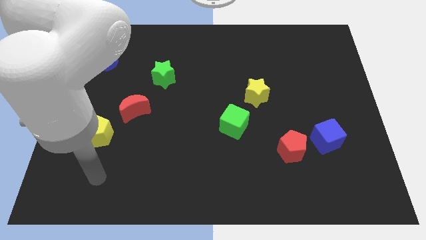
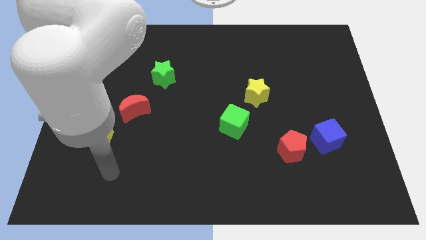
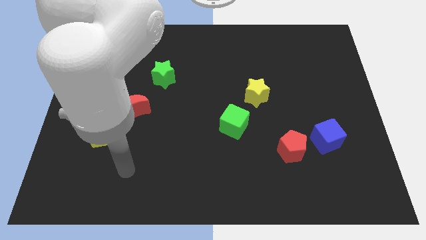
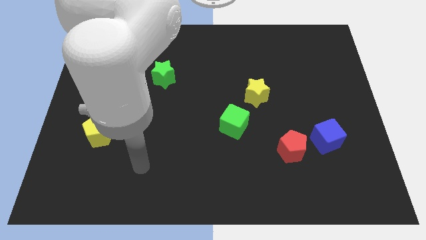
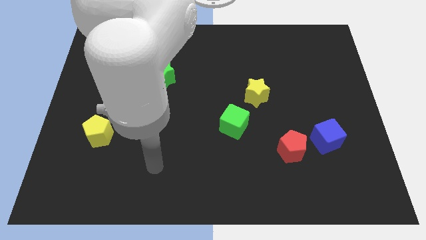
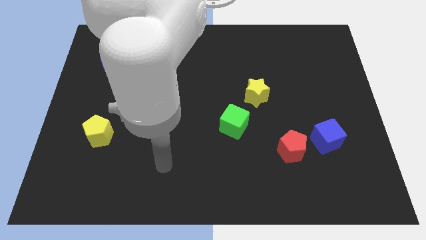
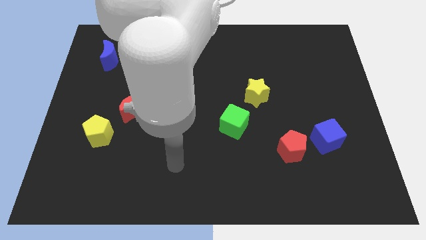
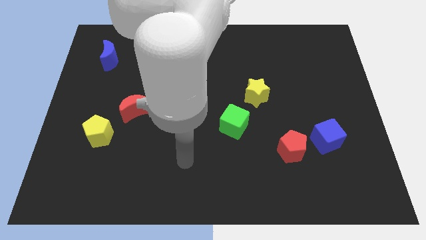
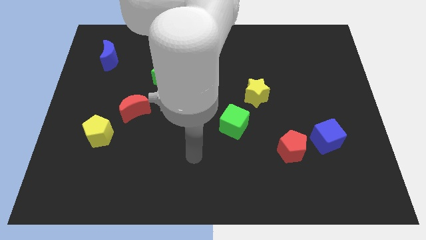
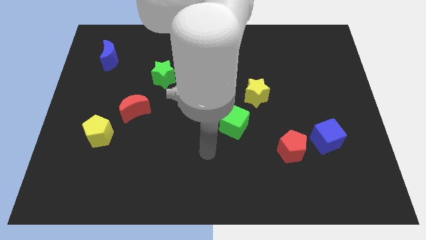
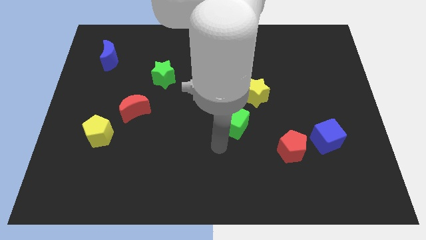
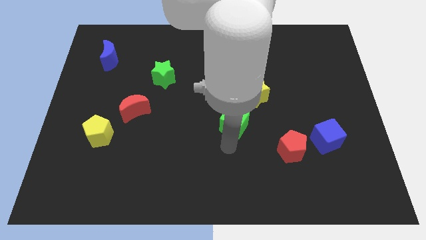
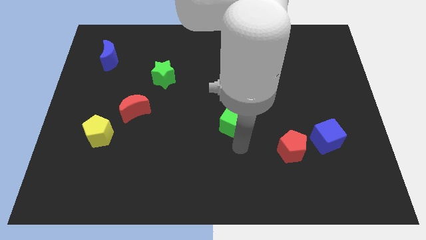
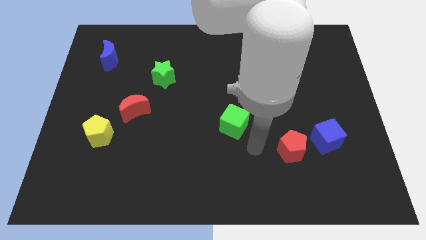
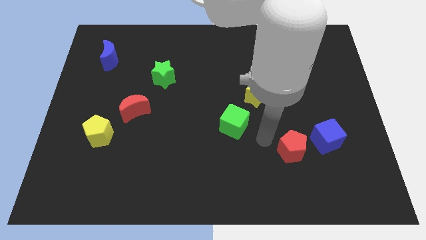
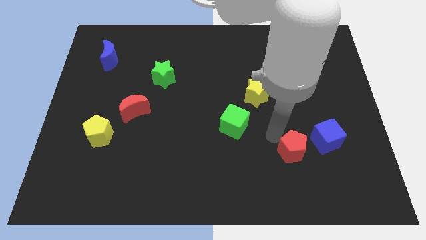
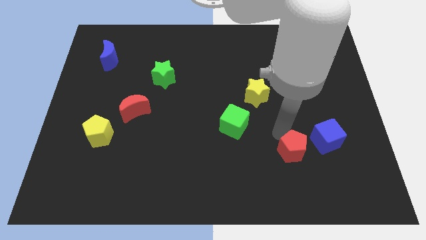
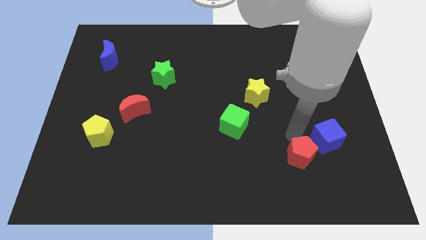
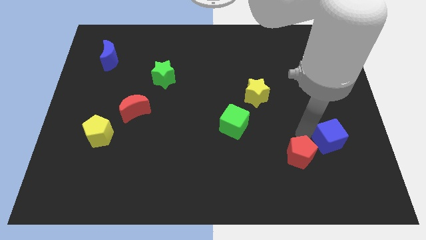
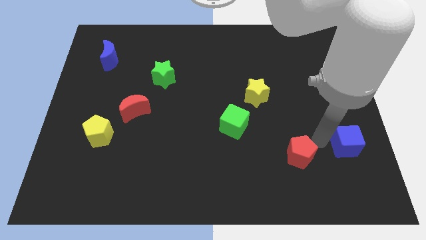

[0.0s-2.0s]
separate the red pentagon from the blue cube

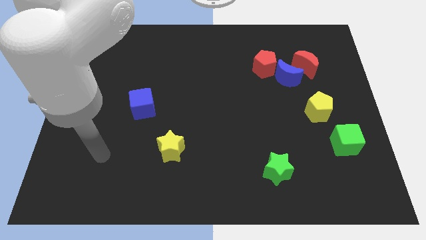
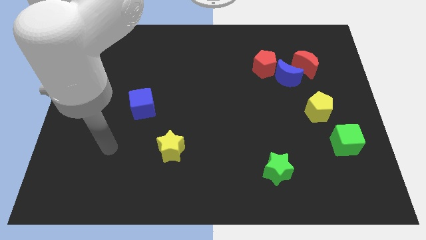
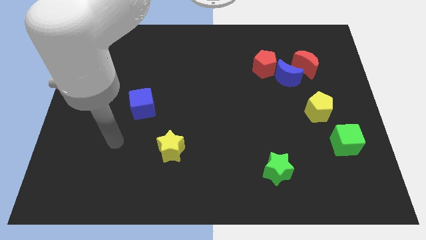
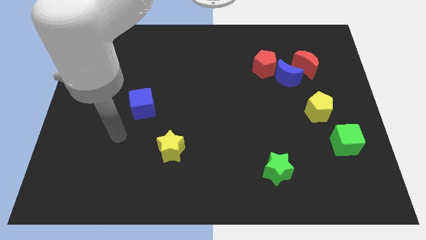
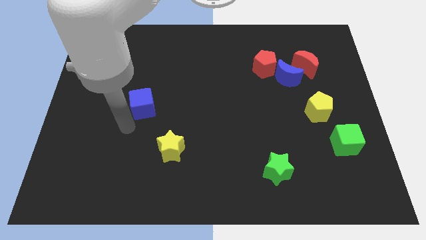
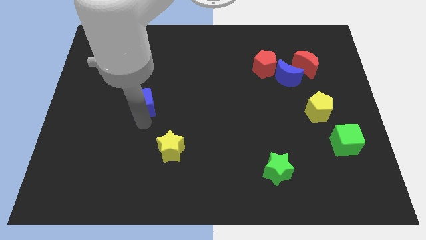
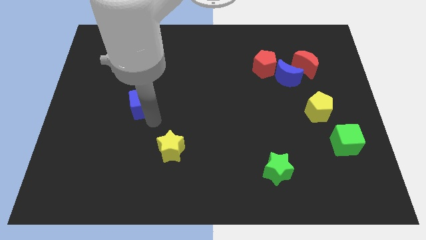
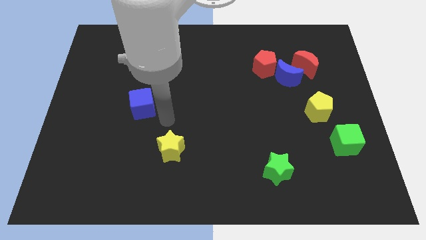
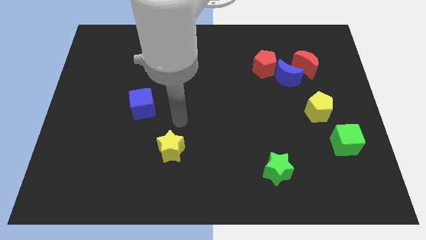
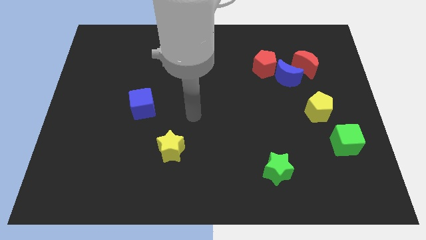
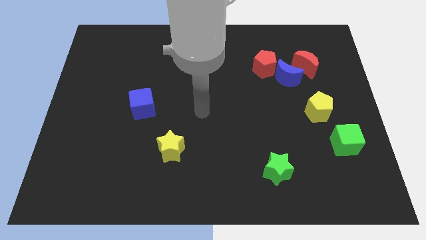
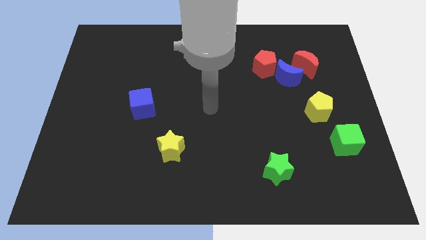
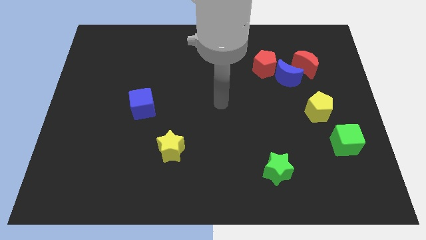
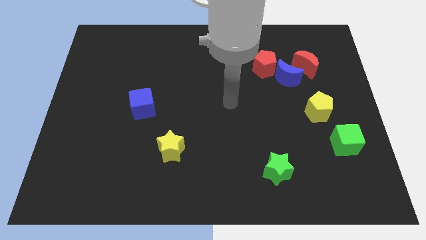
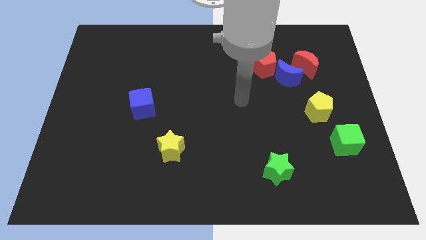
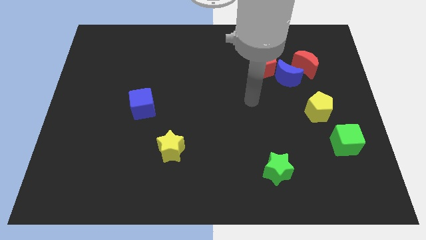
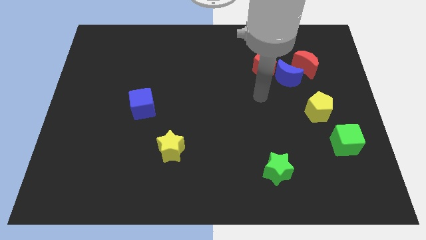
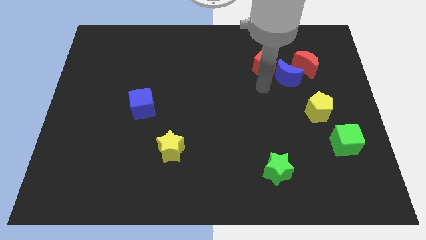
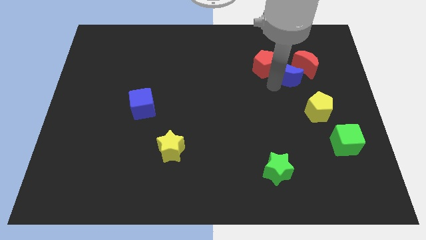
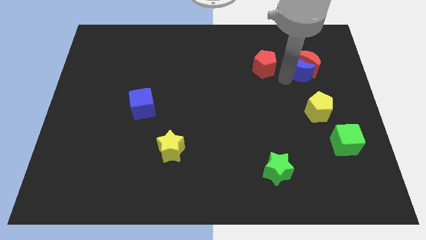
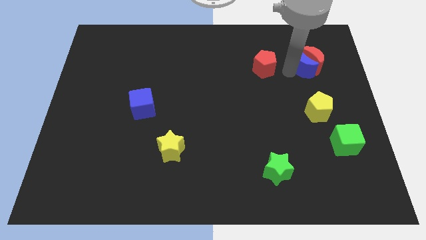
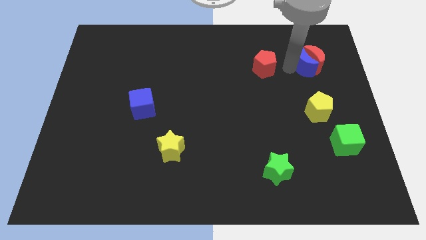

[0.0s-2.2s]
move the red pentagon away from the blue moon

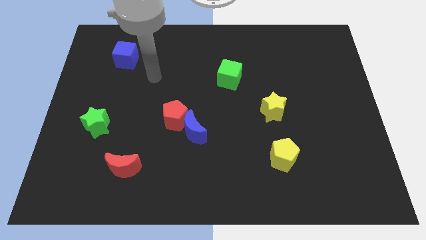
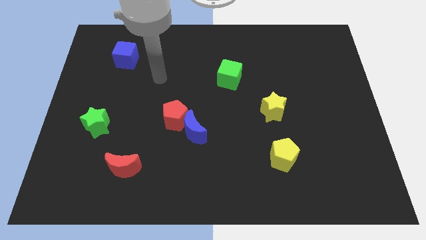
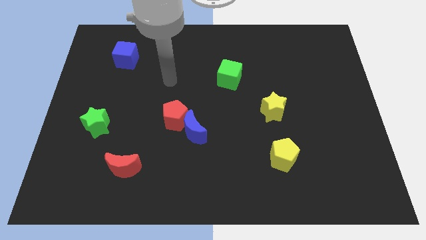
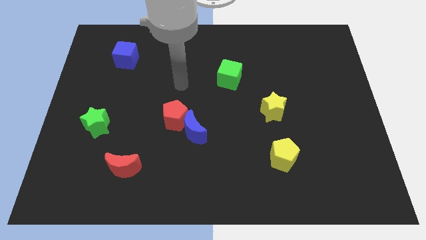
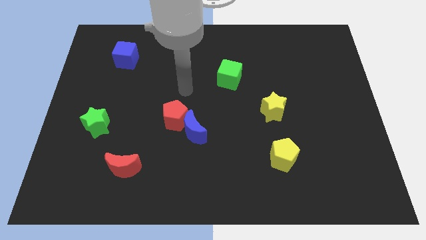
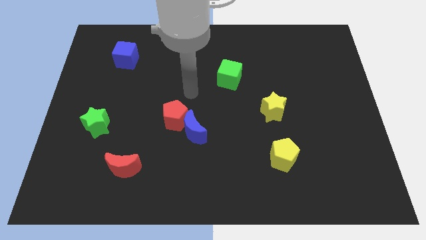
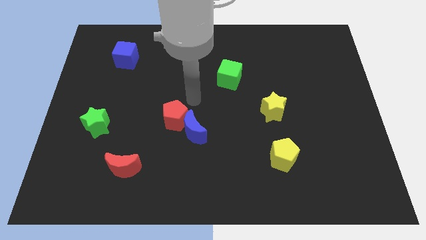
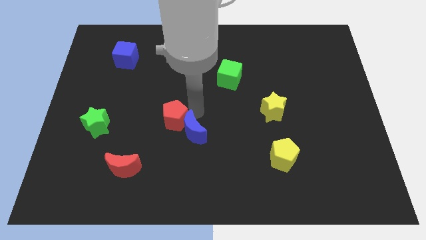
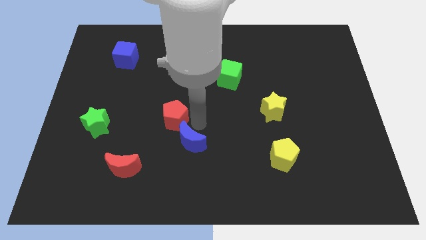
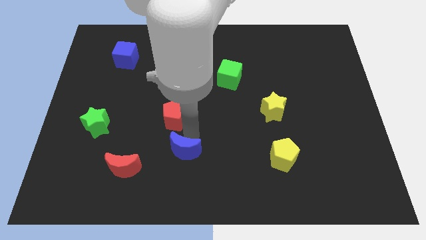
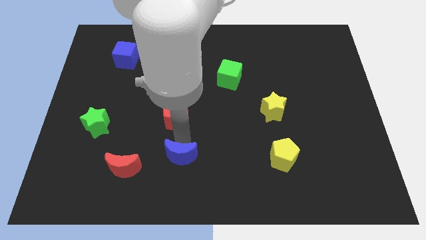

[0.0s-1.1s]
pull the red pentagon apart from the blue moon

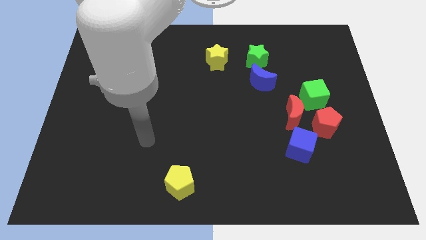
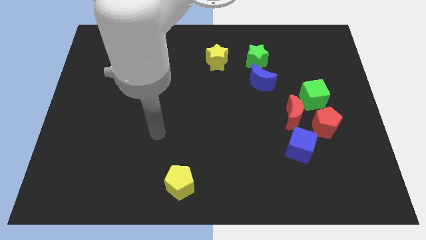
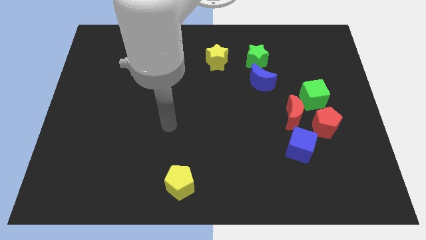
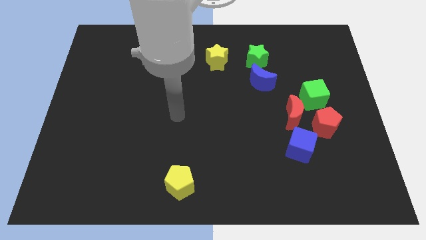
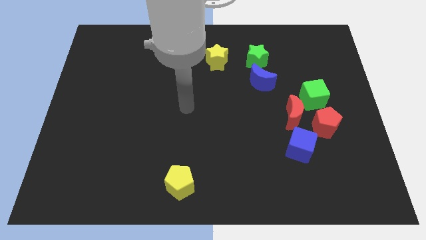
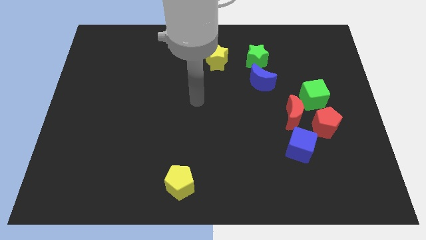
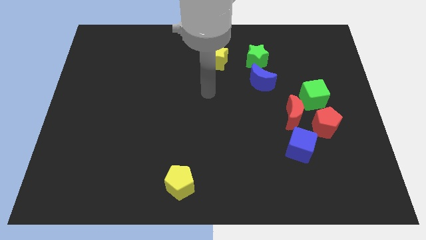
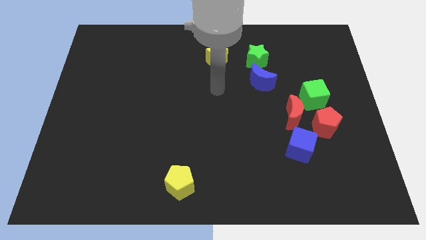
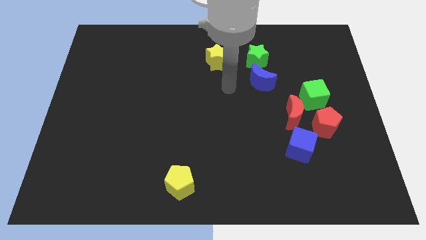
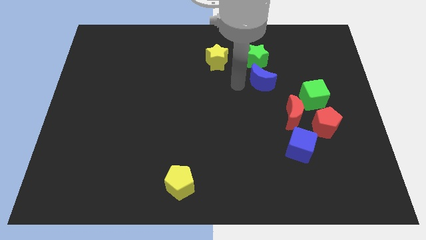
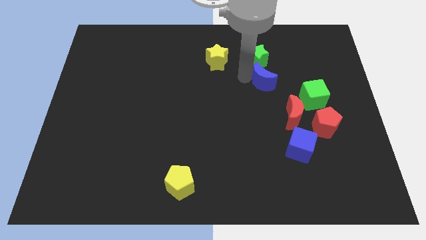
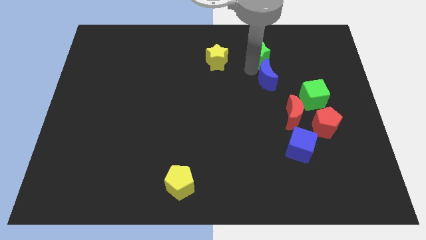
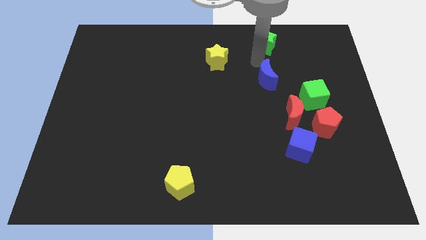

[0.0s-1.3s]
separate the blue moon from the green star

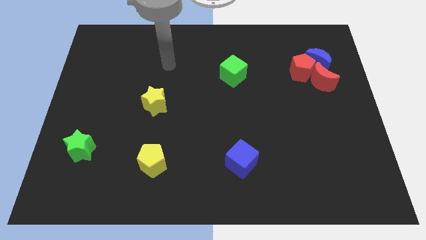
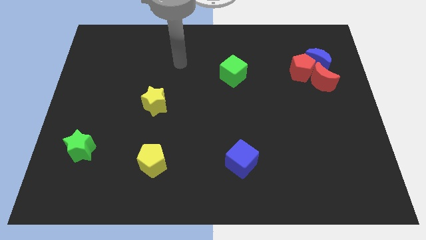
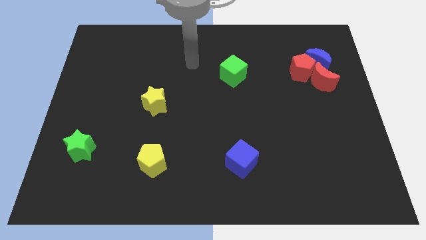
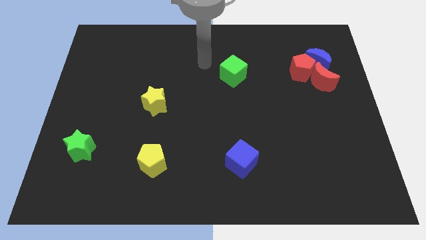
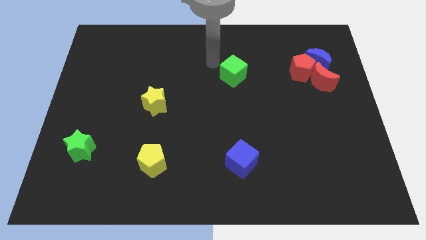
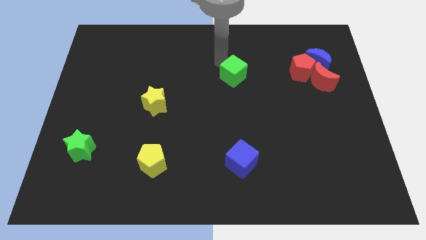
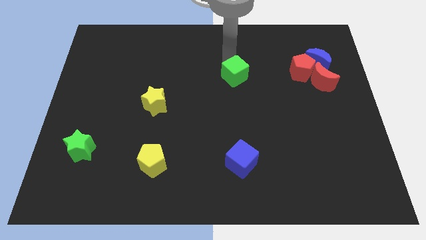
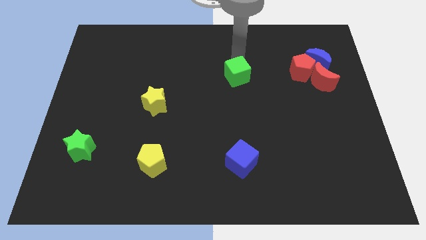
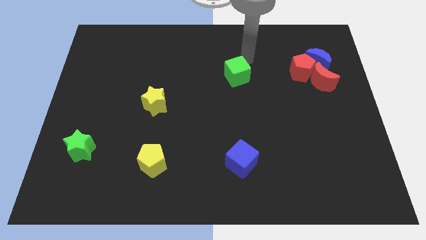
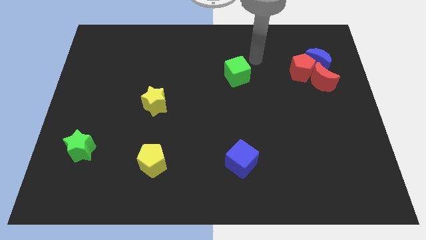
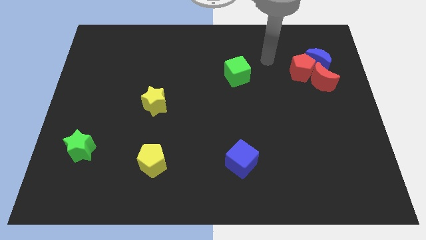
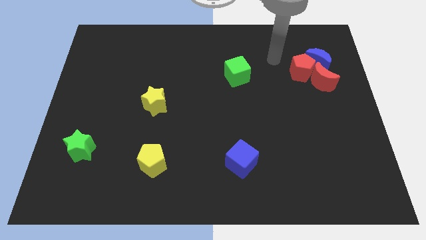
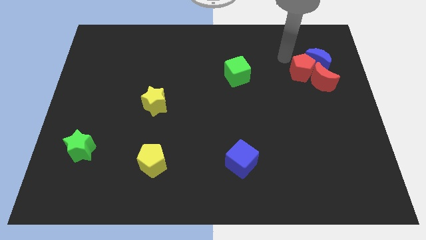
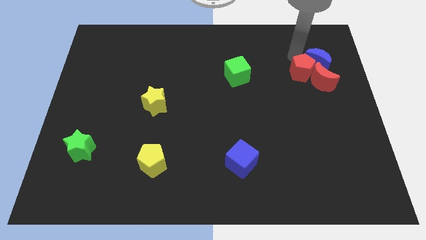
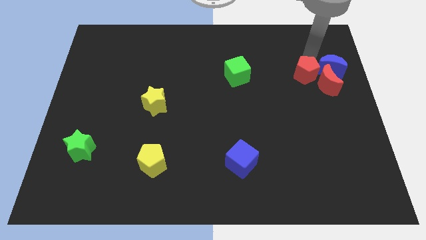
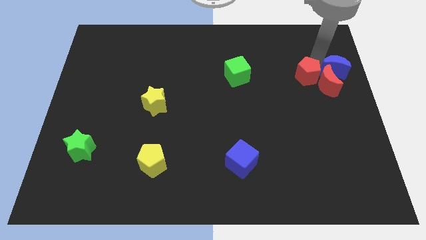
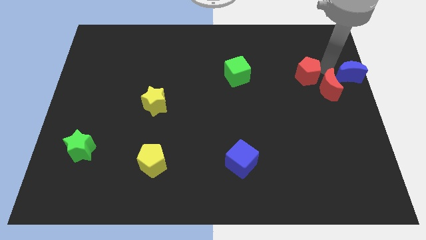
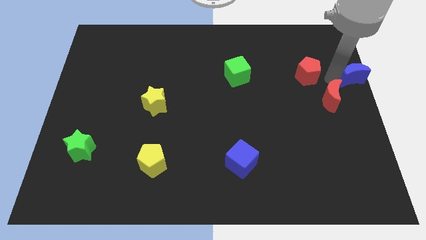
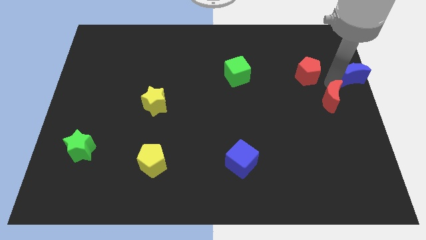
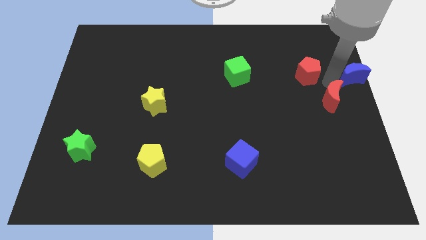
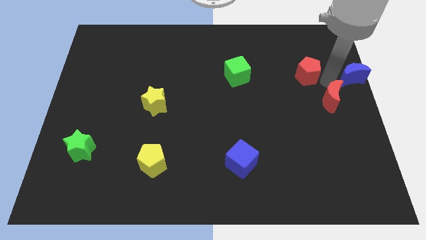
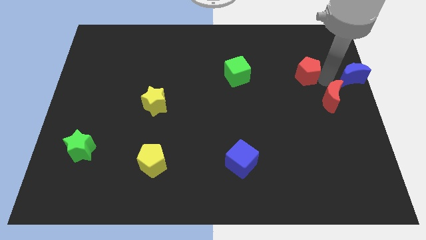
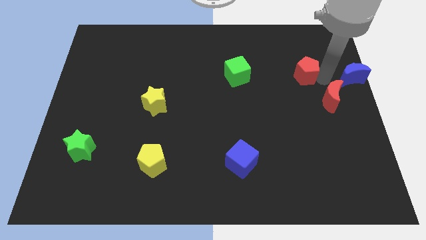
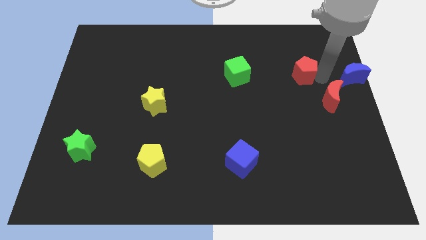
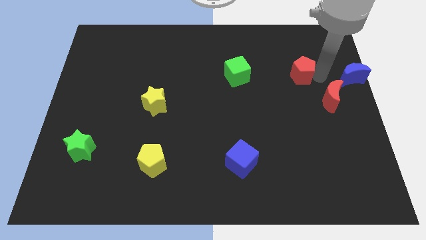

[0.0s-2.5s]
move the red pentagon away from the blue moon and red moon
